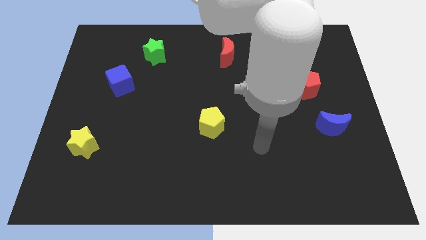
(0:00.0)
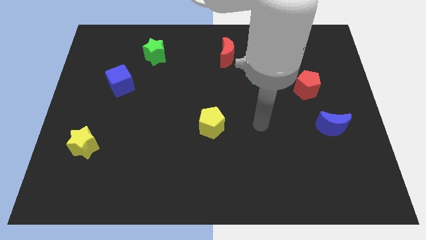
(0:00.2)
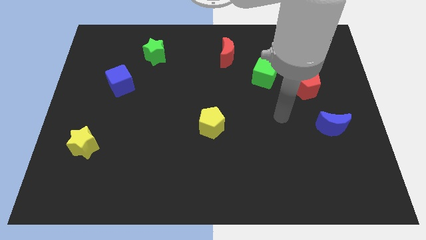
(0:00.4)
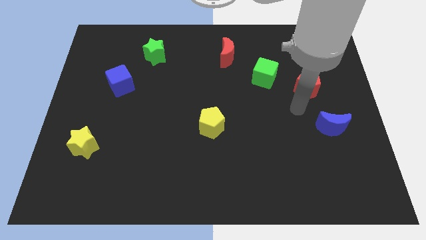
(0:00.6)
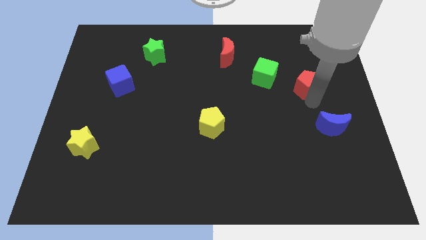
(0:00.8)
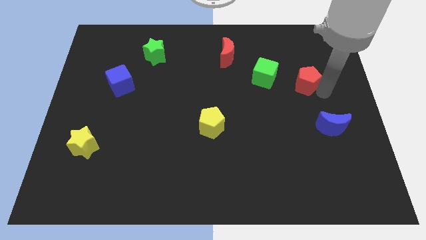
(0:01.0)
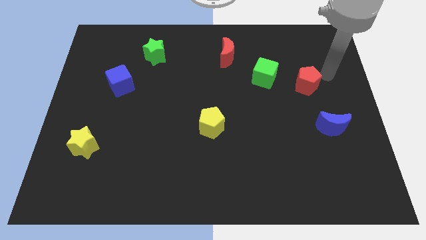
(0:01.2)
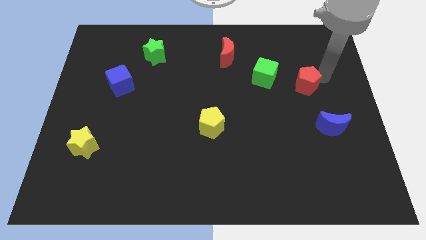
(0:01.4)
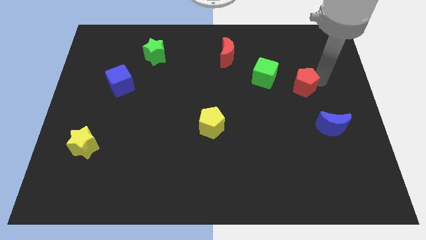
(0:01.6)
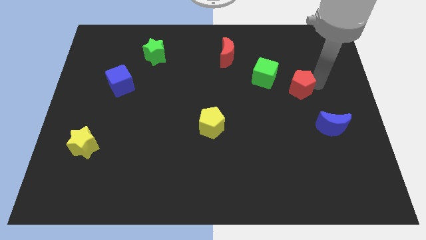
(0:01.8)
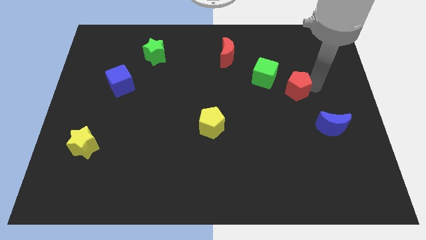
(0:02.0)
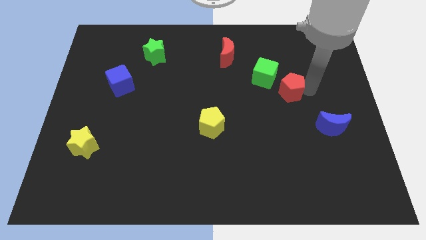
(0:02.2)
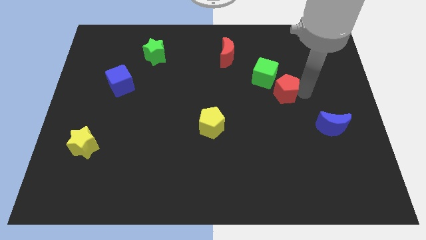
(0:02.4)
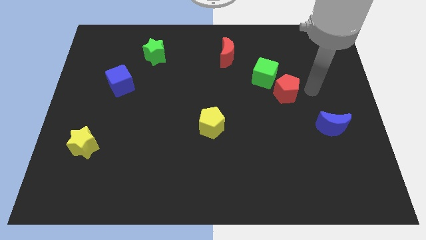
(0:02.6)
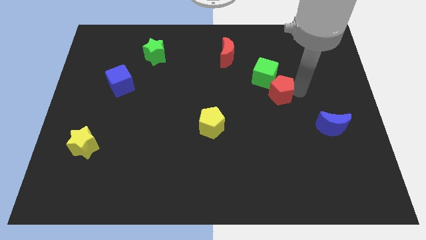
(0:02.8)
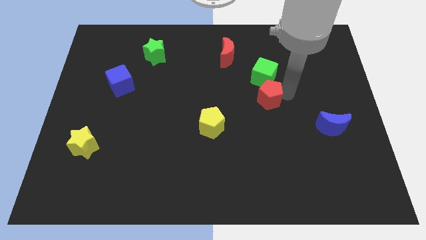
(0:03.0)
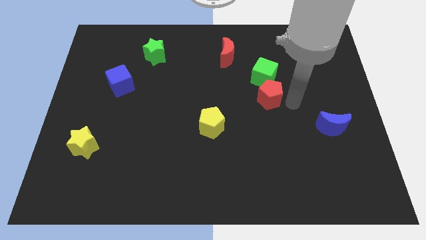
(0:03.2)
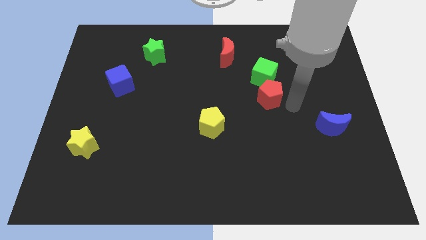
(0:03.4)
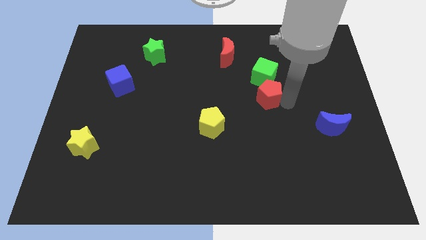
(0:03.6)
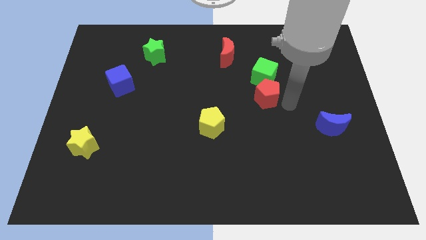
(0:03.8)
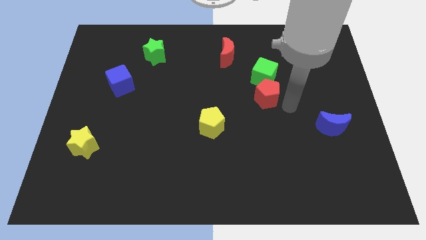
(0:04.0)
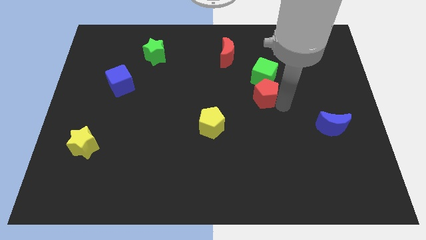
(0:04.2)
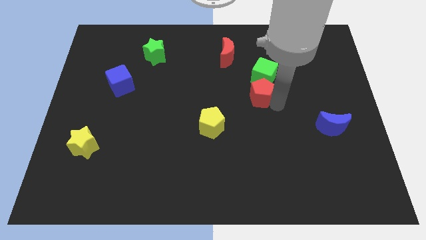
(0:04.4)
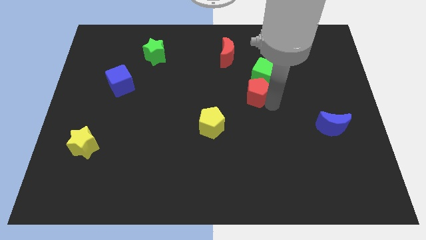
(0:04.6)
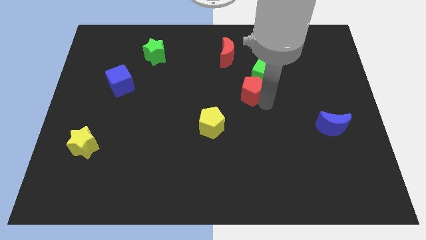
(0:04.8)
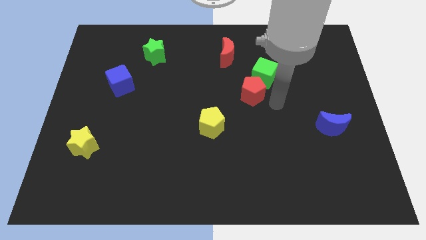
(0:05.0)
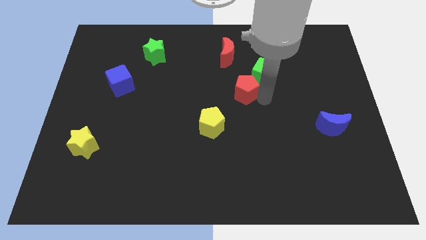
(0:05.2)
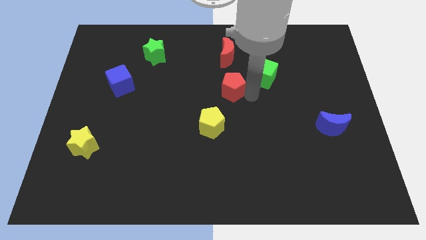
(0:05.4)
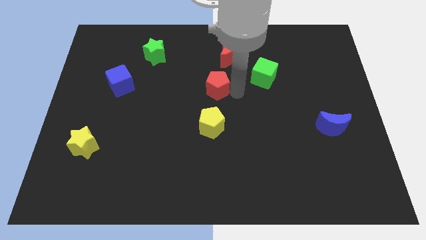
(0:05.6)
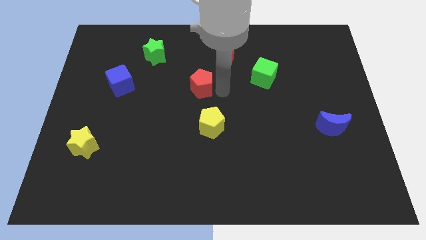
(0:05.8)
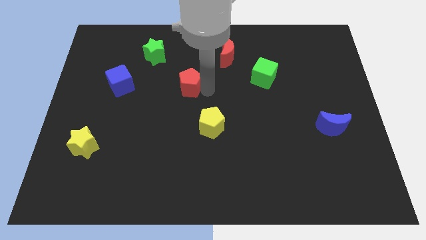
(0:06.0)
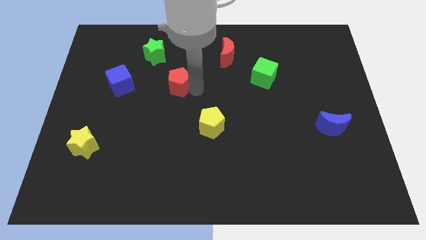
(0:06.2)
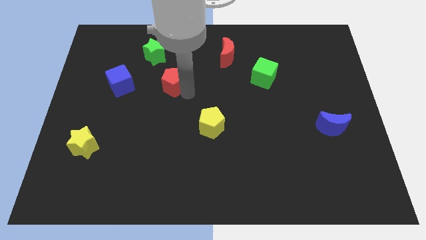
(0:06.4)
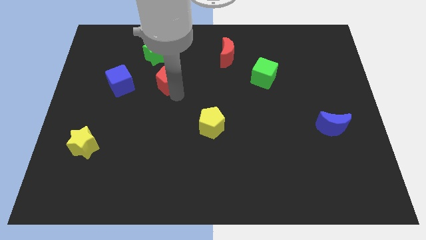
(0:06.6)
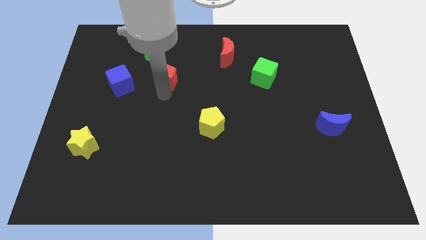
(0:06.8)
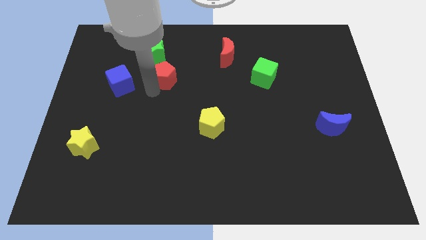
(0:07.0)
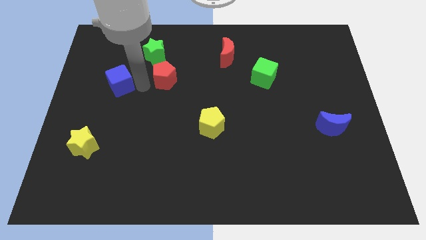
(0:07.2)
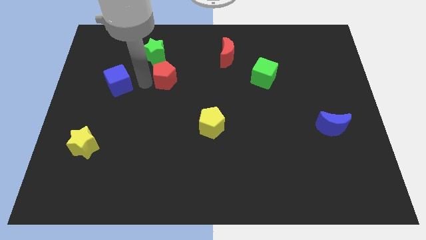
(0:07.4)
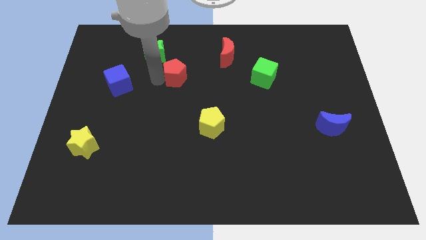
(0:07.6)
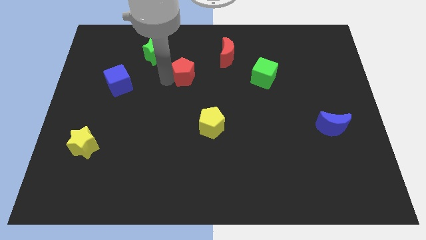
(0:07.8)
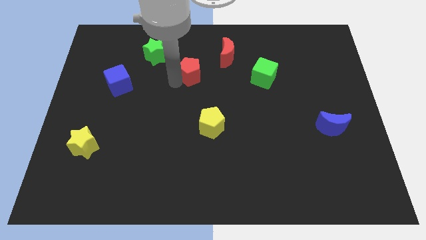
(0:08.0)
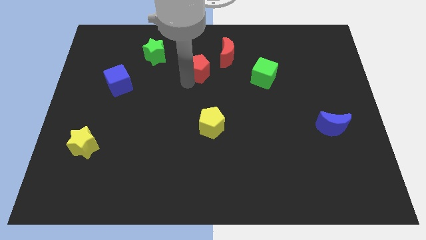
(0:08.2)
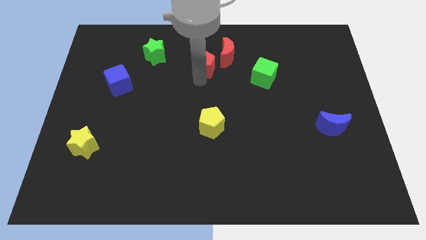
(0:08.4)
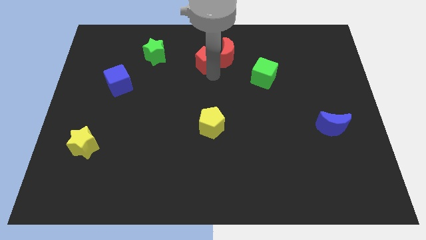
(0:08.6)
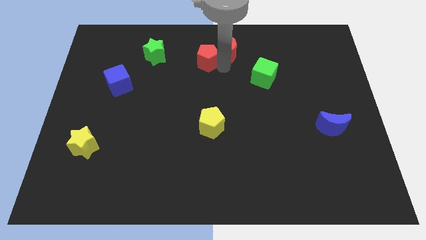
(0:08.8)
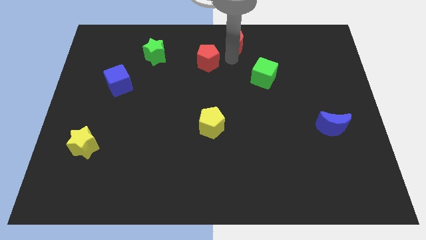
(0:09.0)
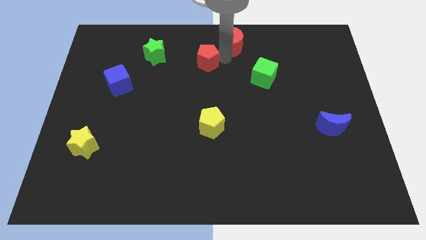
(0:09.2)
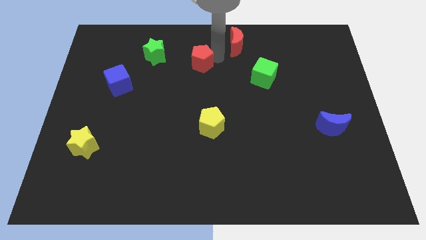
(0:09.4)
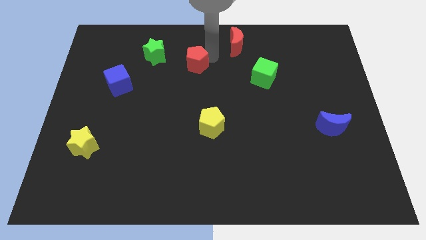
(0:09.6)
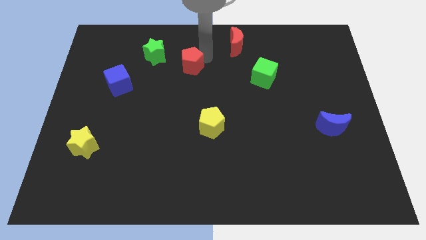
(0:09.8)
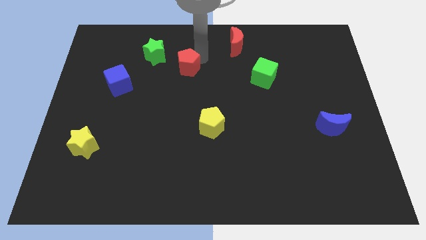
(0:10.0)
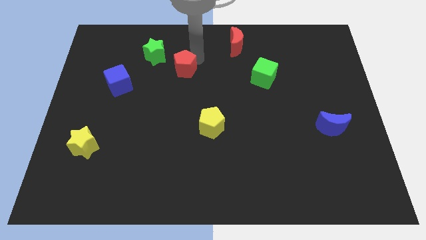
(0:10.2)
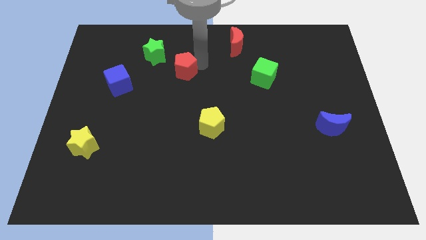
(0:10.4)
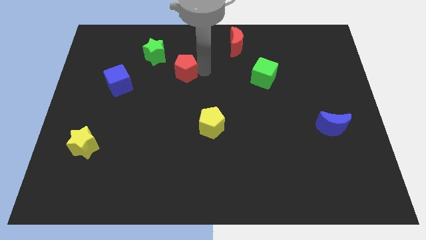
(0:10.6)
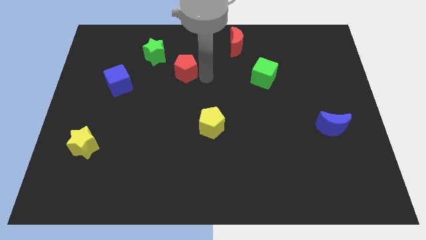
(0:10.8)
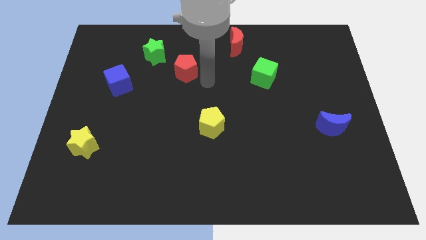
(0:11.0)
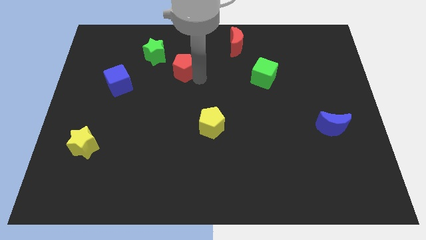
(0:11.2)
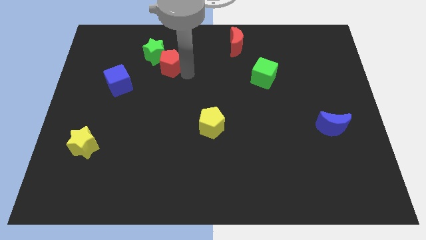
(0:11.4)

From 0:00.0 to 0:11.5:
move the red pentagon towards the green star

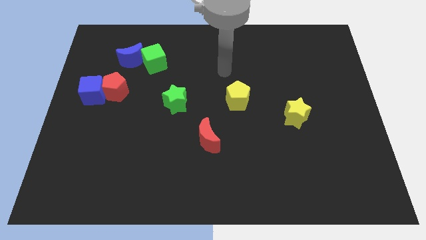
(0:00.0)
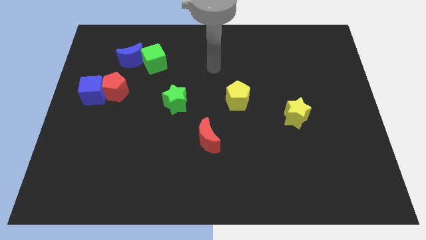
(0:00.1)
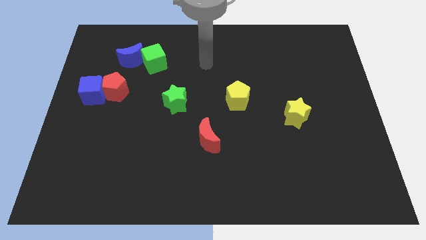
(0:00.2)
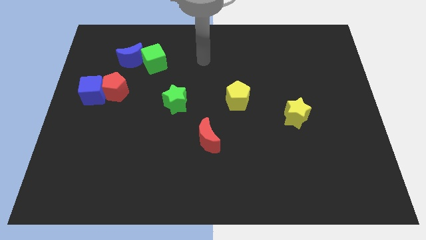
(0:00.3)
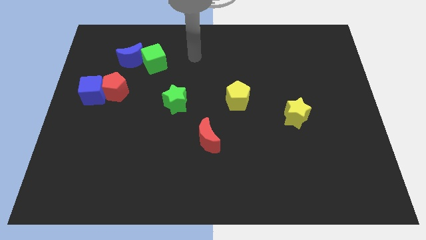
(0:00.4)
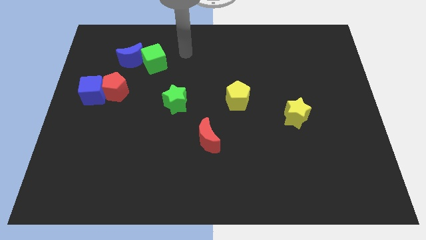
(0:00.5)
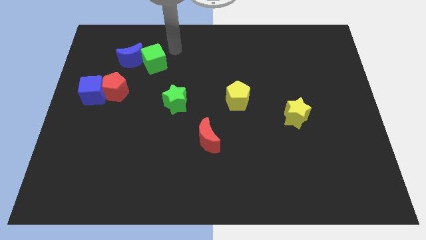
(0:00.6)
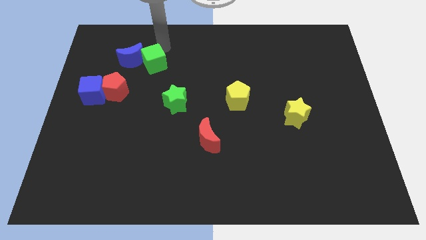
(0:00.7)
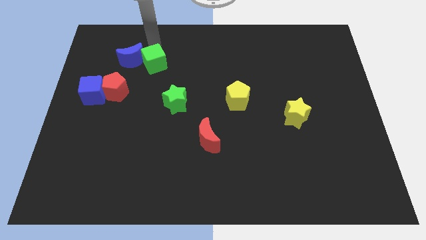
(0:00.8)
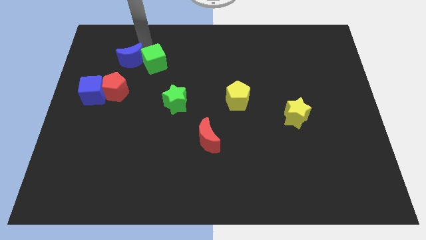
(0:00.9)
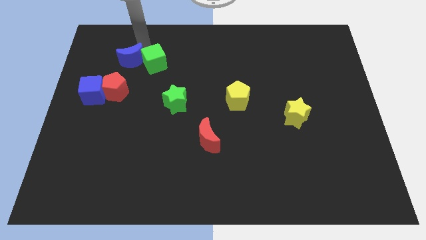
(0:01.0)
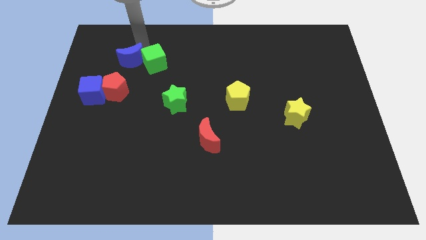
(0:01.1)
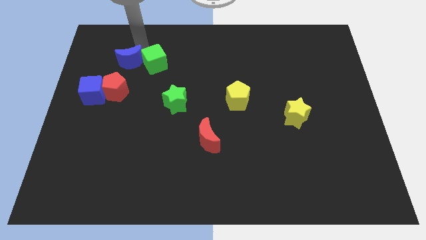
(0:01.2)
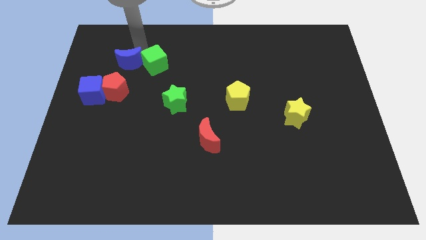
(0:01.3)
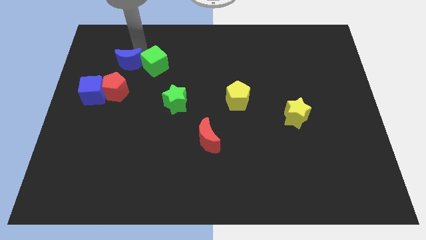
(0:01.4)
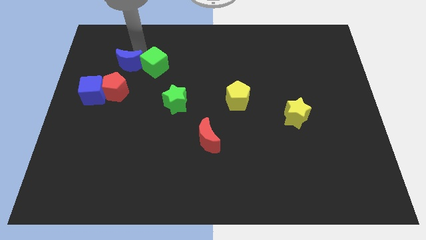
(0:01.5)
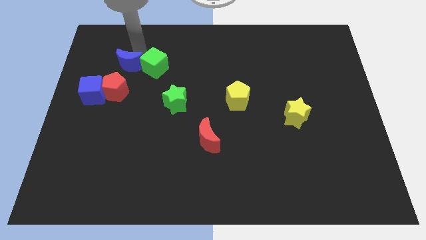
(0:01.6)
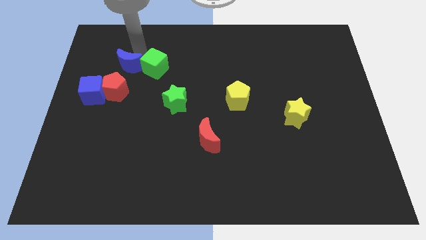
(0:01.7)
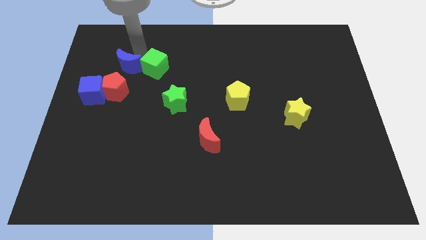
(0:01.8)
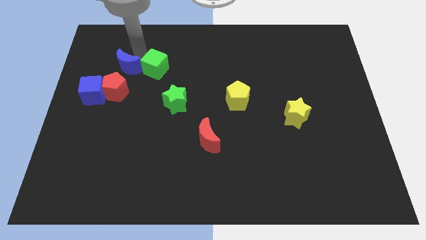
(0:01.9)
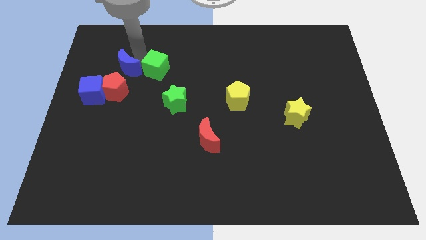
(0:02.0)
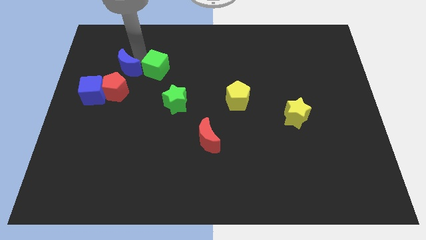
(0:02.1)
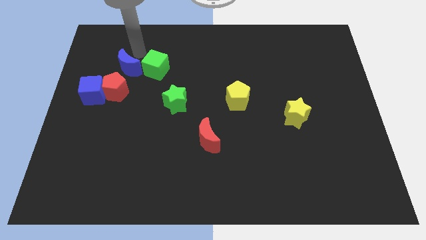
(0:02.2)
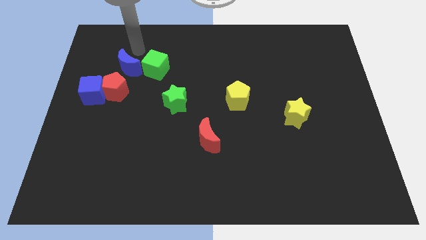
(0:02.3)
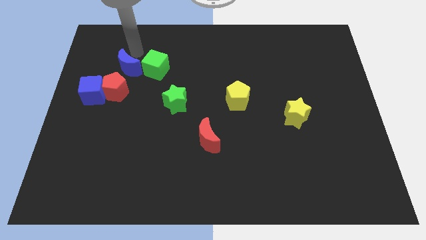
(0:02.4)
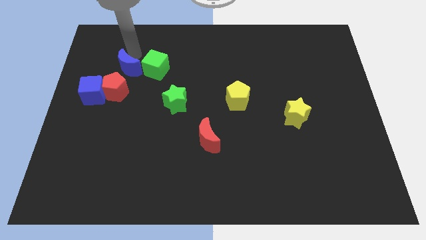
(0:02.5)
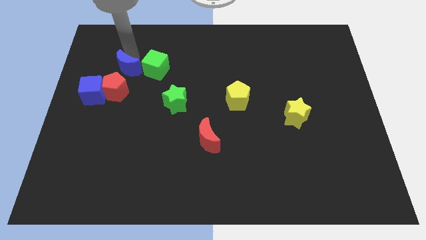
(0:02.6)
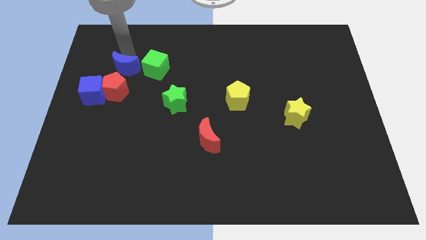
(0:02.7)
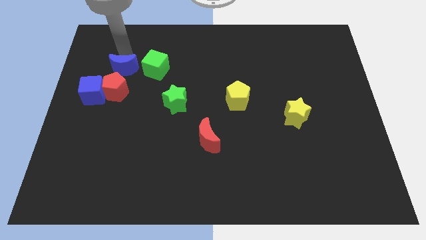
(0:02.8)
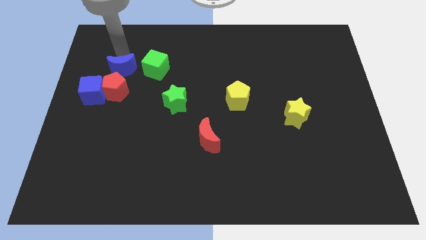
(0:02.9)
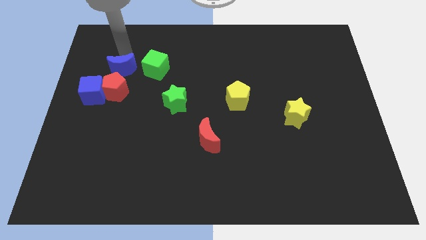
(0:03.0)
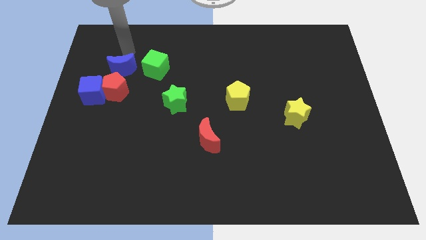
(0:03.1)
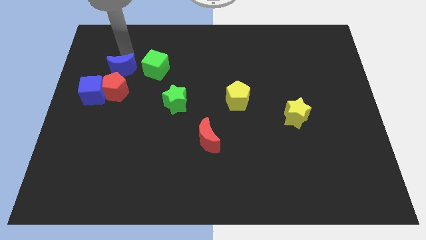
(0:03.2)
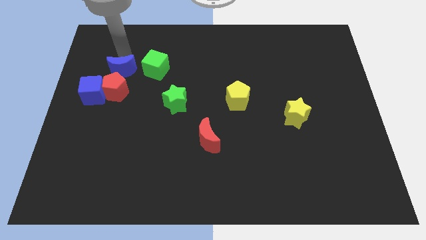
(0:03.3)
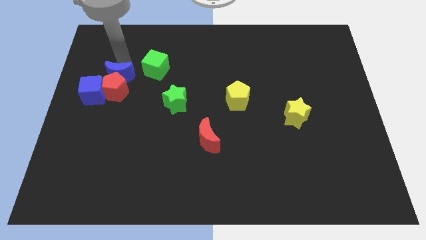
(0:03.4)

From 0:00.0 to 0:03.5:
push the blue moon close to the red pentagon
